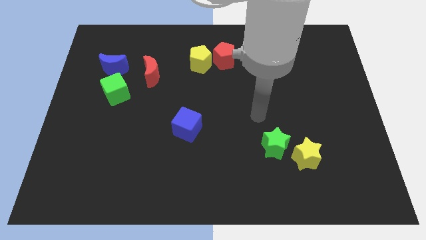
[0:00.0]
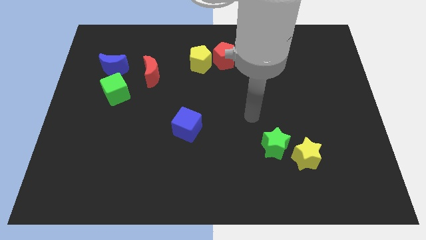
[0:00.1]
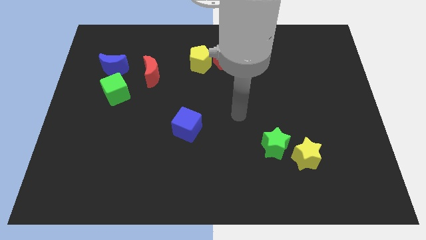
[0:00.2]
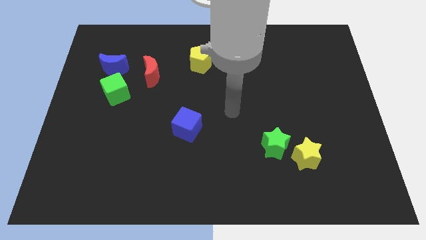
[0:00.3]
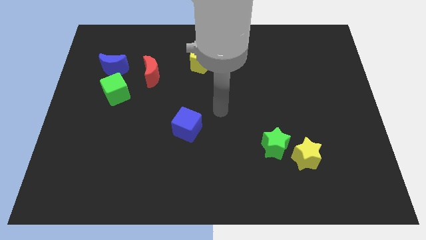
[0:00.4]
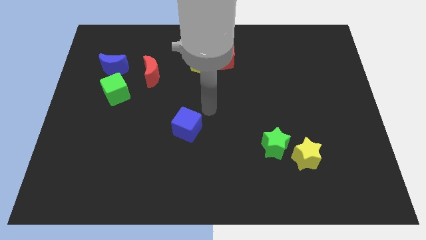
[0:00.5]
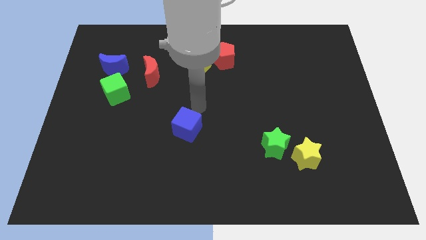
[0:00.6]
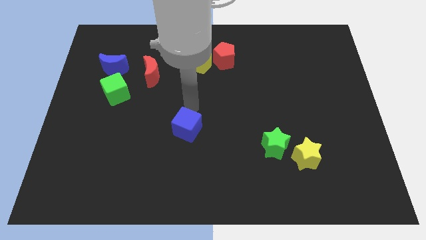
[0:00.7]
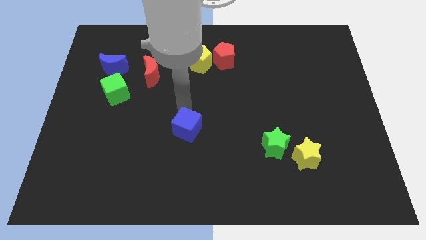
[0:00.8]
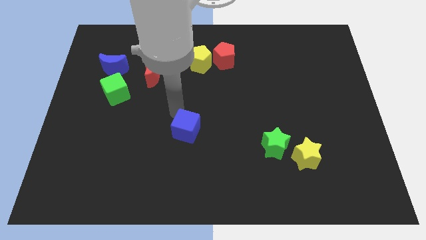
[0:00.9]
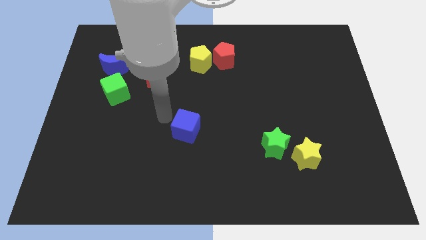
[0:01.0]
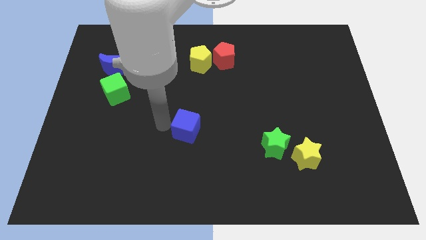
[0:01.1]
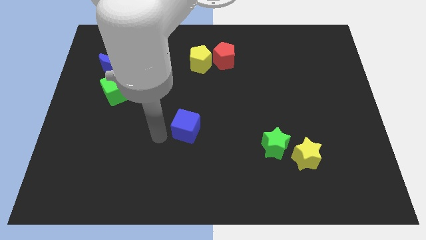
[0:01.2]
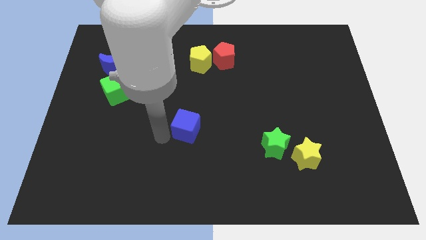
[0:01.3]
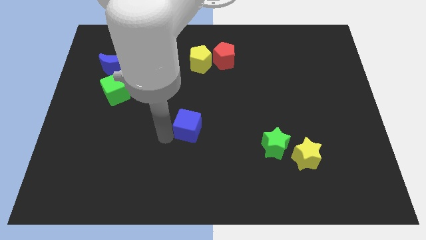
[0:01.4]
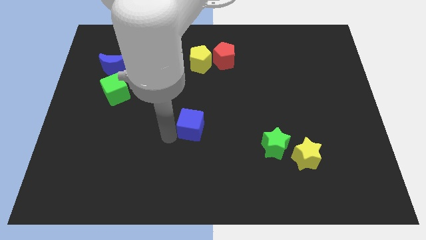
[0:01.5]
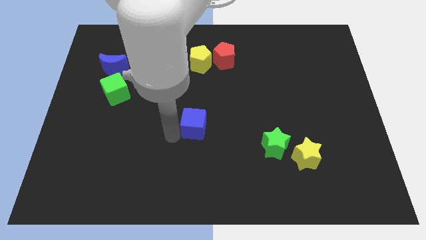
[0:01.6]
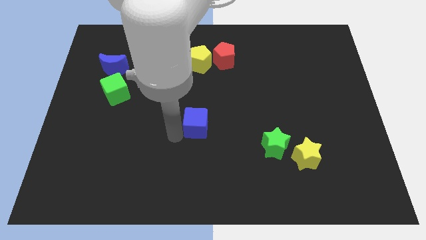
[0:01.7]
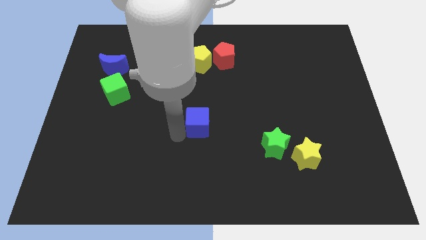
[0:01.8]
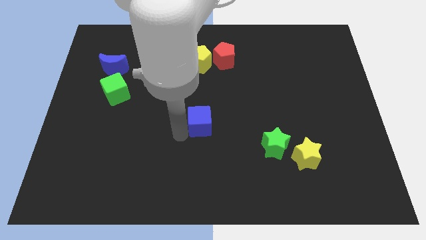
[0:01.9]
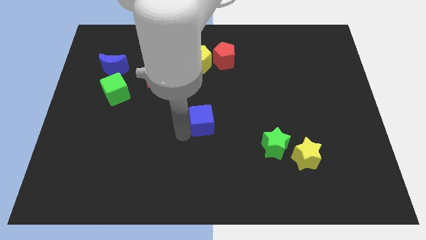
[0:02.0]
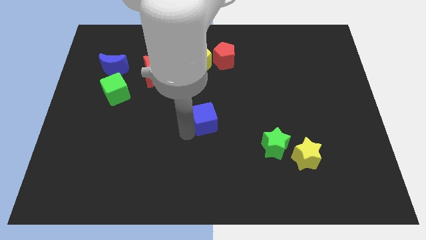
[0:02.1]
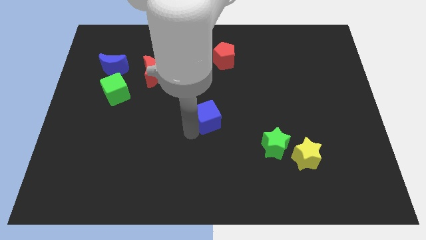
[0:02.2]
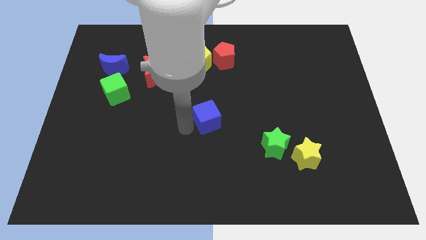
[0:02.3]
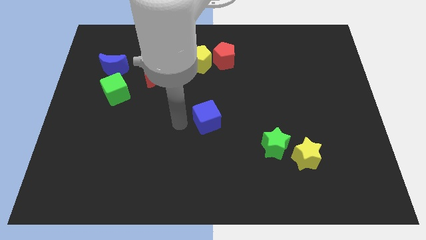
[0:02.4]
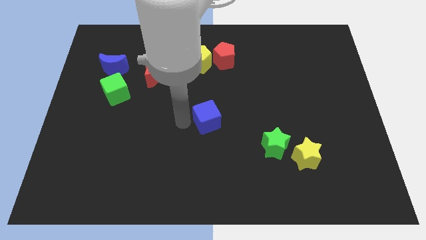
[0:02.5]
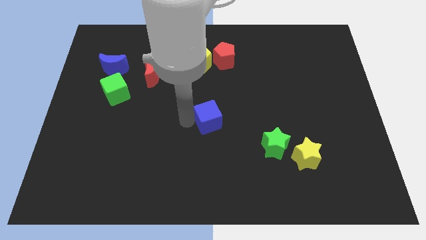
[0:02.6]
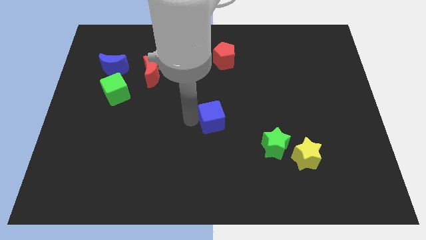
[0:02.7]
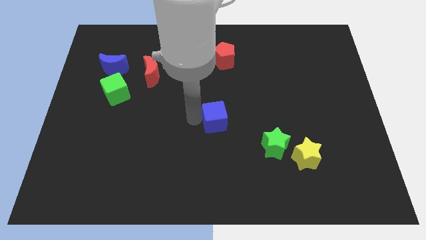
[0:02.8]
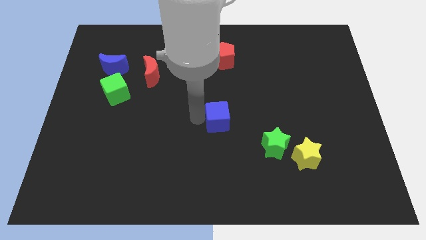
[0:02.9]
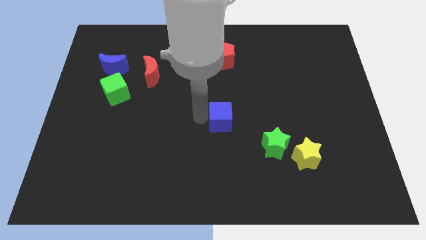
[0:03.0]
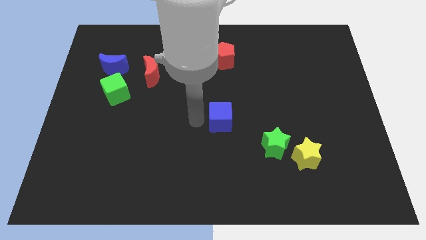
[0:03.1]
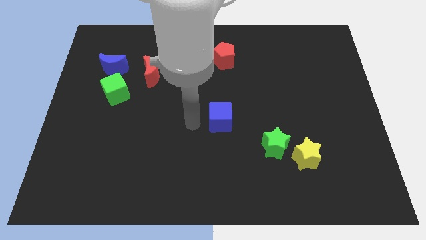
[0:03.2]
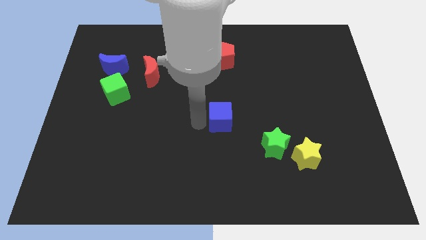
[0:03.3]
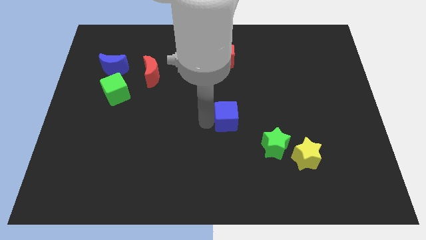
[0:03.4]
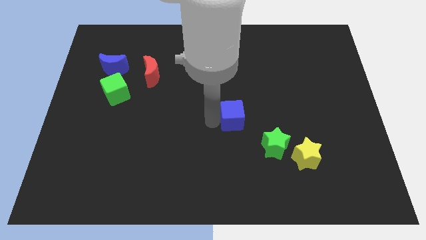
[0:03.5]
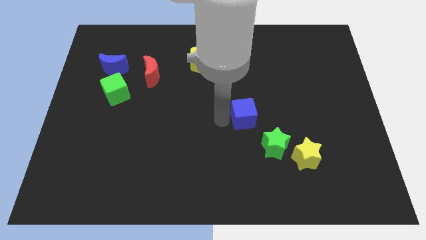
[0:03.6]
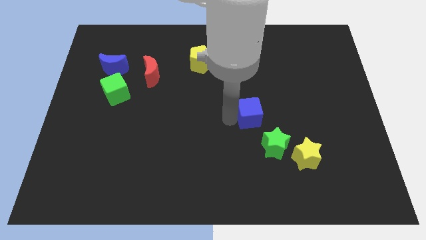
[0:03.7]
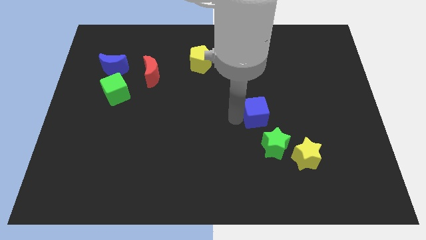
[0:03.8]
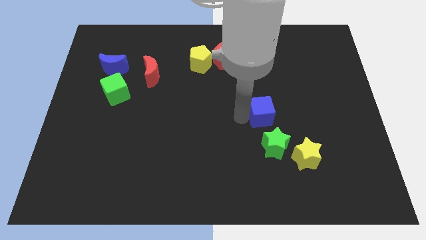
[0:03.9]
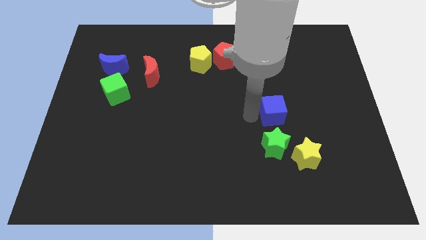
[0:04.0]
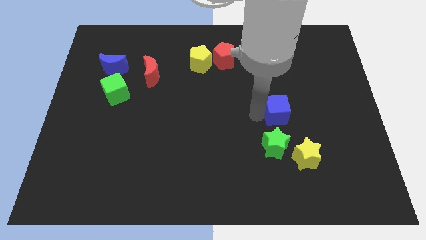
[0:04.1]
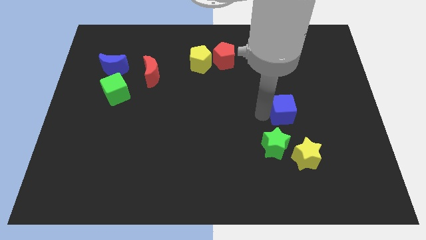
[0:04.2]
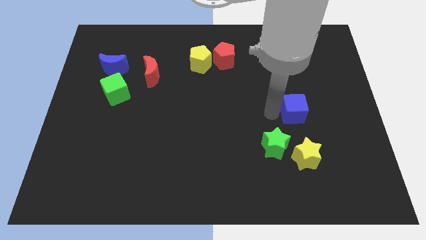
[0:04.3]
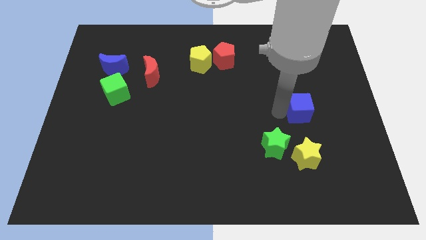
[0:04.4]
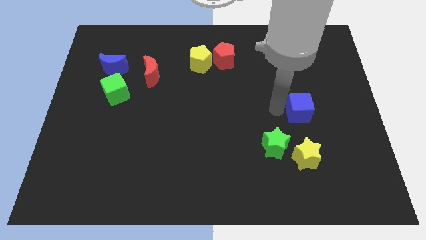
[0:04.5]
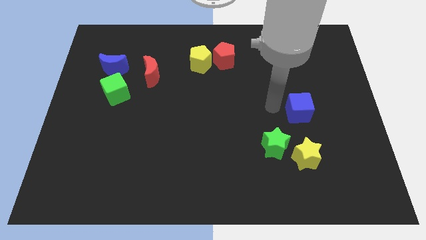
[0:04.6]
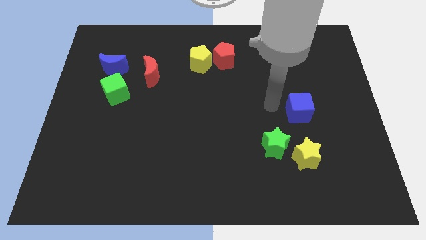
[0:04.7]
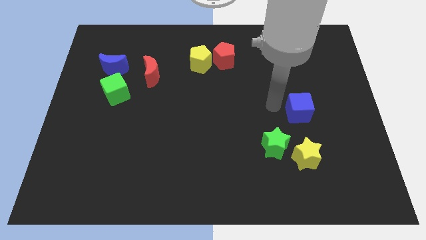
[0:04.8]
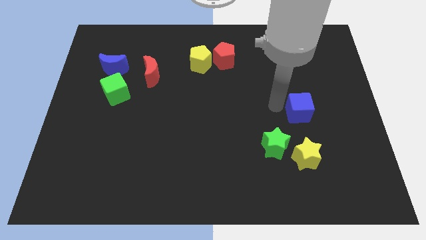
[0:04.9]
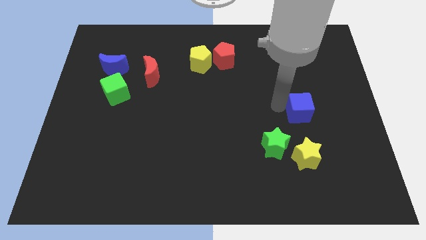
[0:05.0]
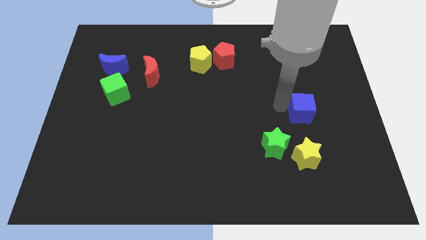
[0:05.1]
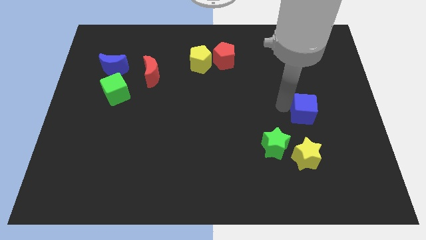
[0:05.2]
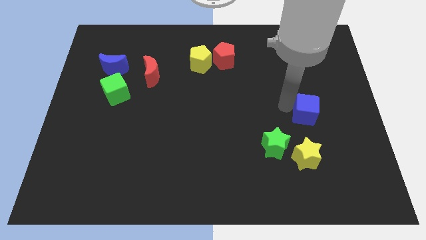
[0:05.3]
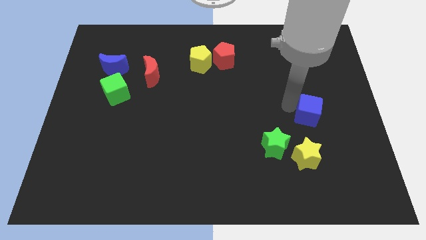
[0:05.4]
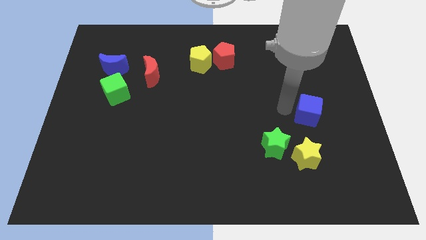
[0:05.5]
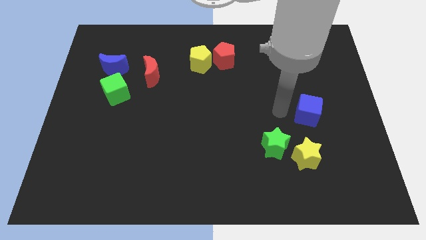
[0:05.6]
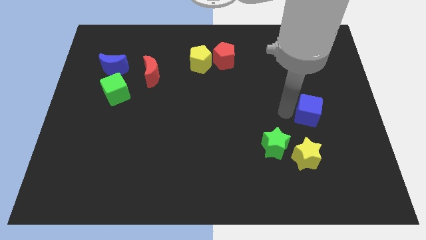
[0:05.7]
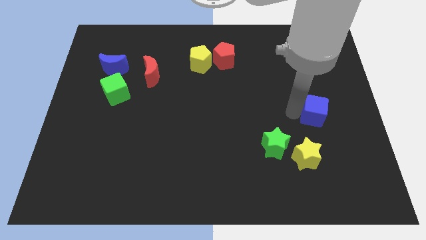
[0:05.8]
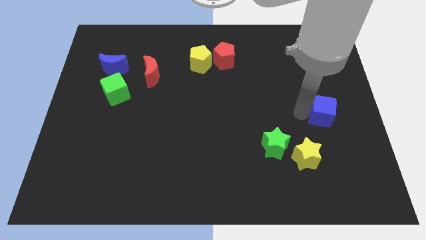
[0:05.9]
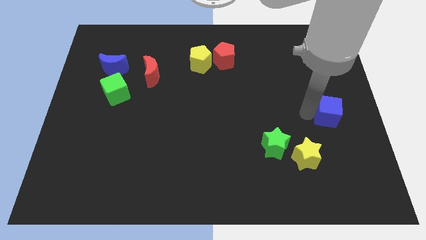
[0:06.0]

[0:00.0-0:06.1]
move the blue cube to the center right
